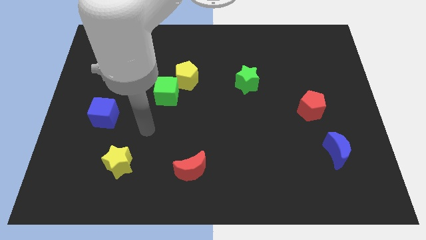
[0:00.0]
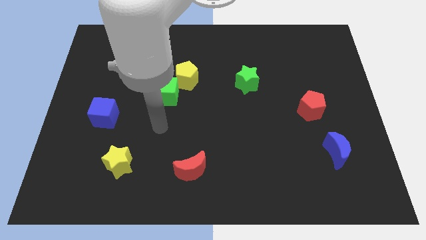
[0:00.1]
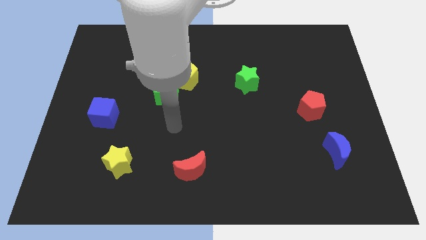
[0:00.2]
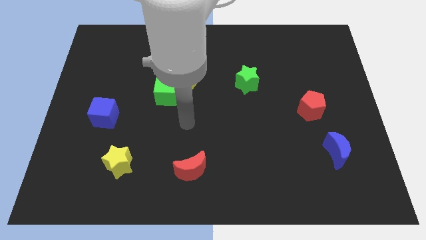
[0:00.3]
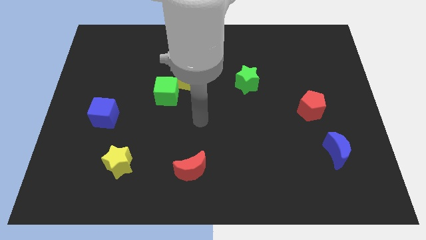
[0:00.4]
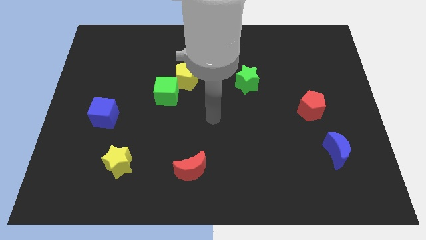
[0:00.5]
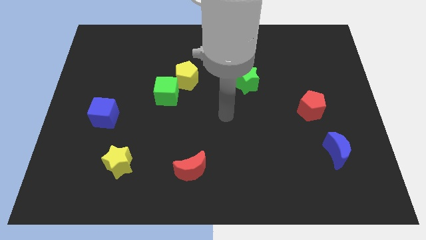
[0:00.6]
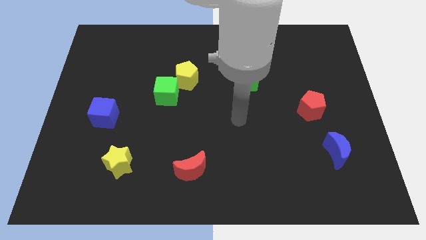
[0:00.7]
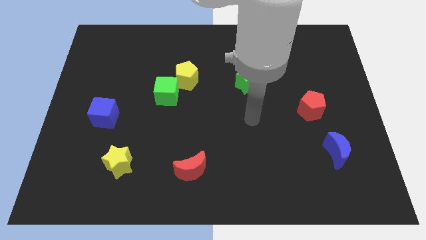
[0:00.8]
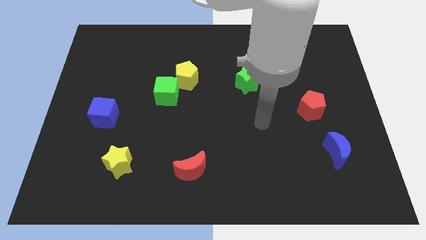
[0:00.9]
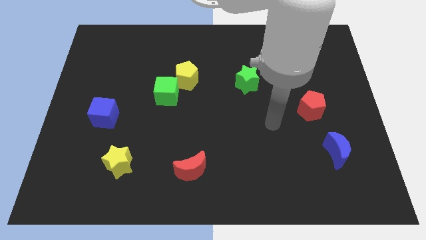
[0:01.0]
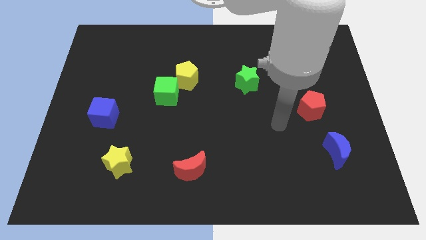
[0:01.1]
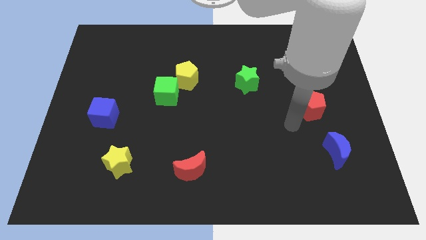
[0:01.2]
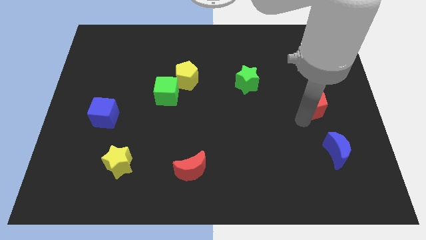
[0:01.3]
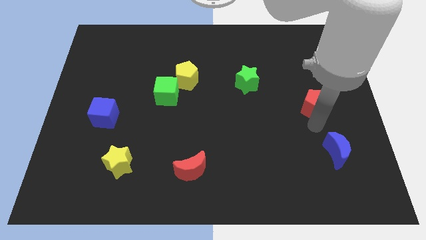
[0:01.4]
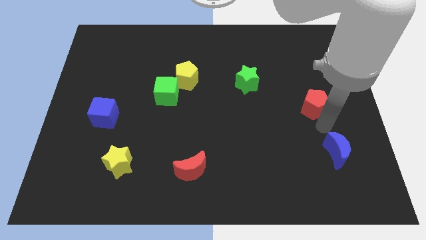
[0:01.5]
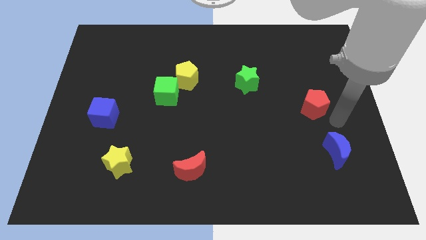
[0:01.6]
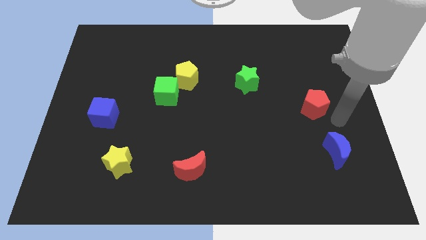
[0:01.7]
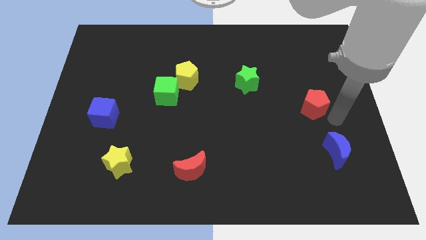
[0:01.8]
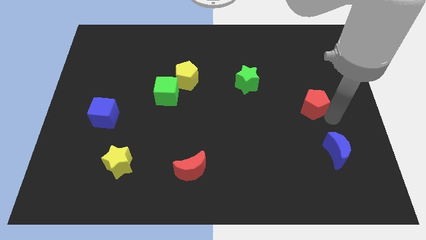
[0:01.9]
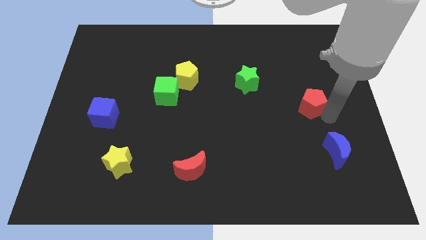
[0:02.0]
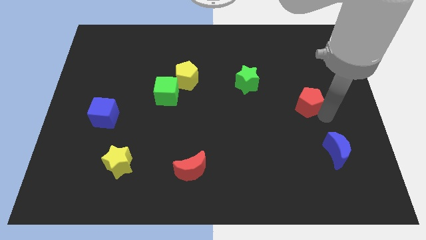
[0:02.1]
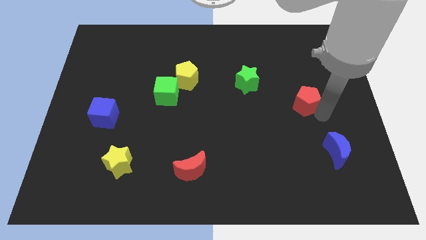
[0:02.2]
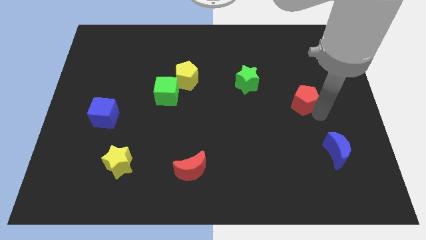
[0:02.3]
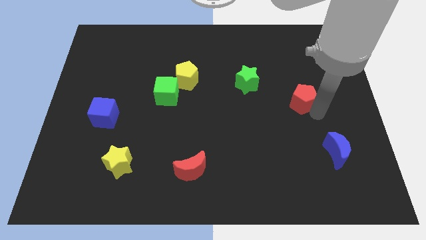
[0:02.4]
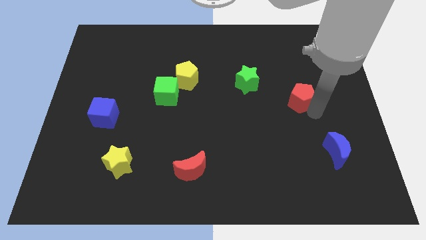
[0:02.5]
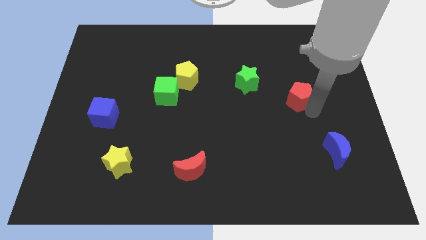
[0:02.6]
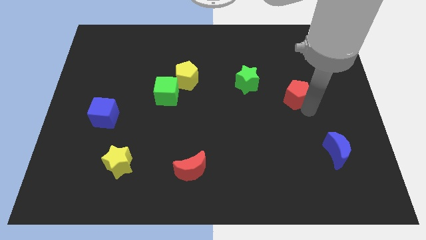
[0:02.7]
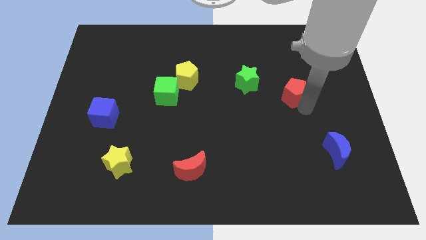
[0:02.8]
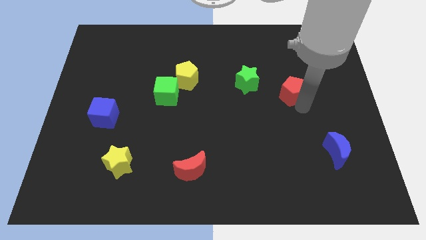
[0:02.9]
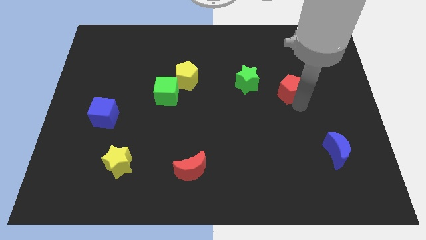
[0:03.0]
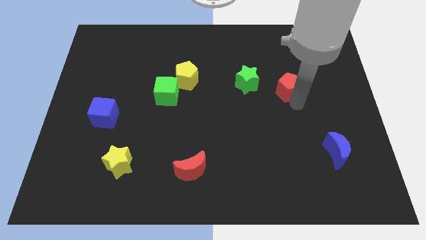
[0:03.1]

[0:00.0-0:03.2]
move the red pentagon a bit upwards and then left

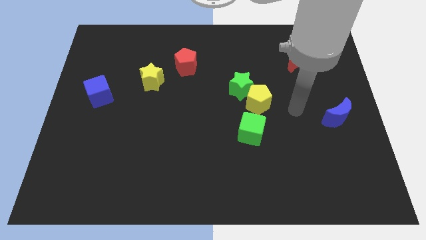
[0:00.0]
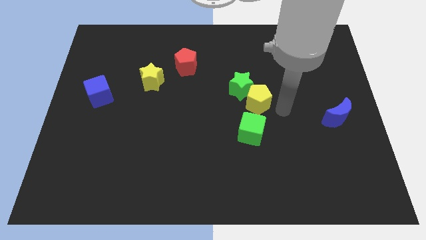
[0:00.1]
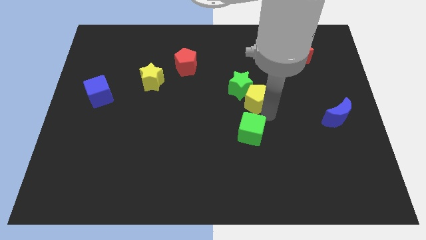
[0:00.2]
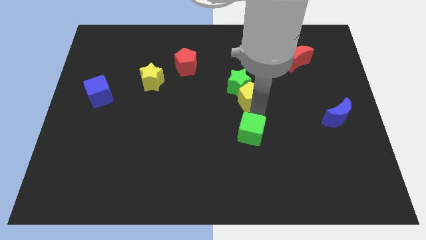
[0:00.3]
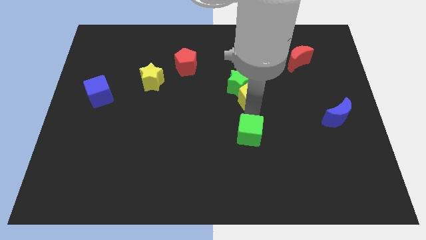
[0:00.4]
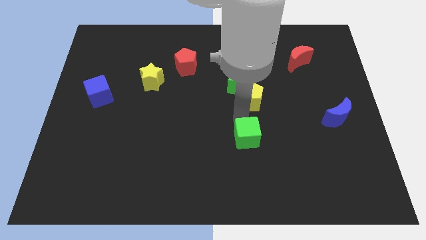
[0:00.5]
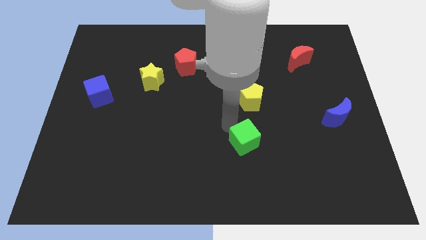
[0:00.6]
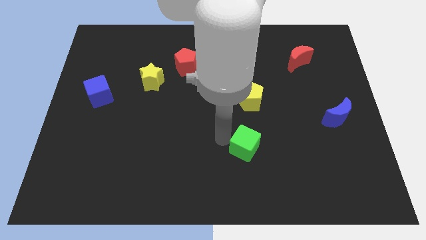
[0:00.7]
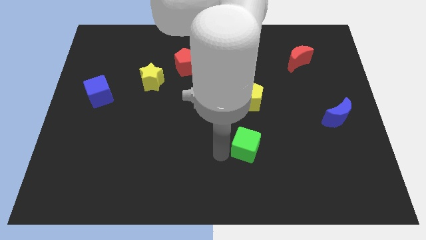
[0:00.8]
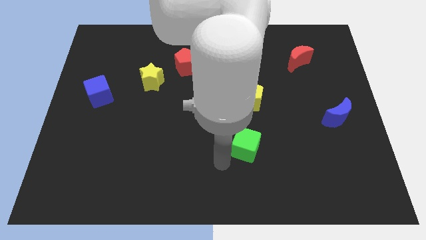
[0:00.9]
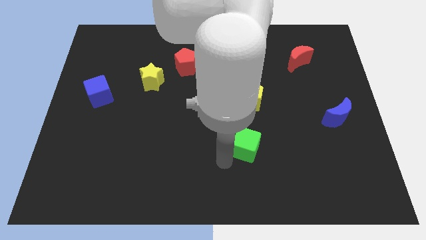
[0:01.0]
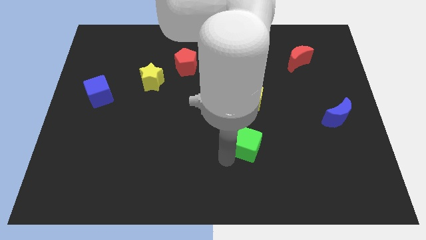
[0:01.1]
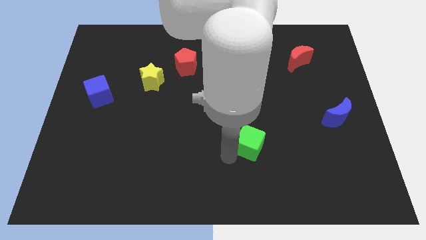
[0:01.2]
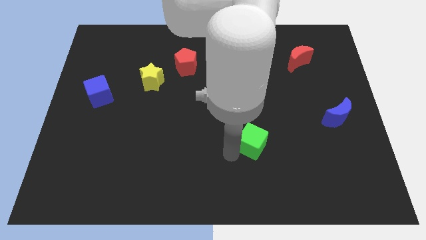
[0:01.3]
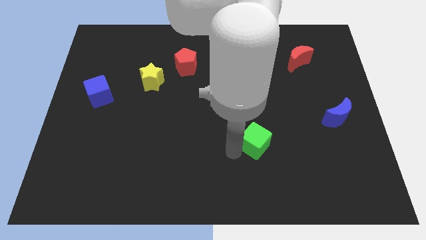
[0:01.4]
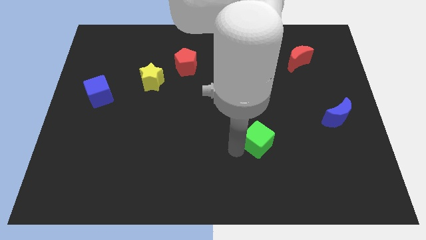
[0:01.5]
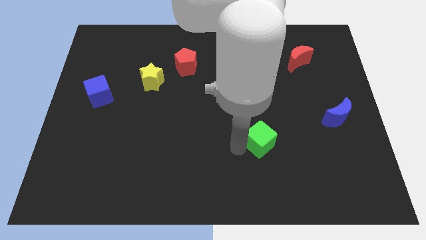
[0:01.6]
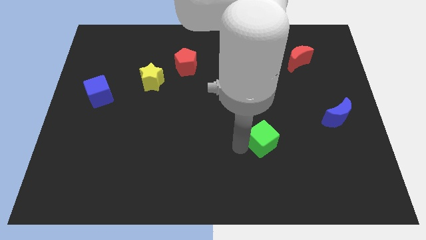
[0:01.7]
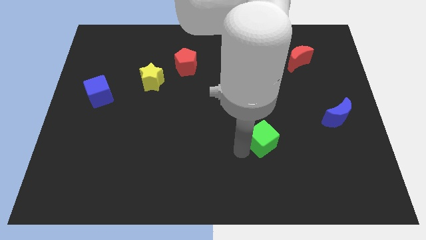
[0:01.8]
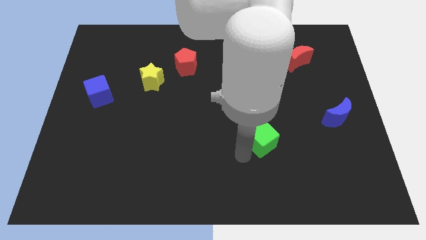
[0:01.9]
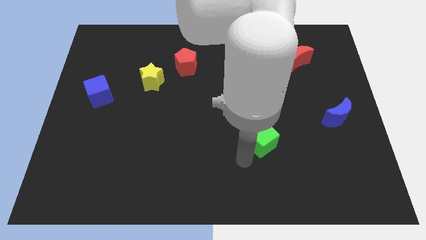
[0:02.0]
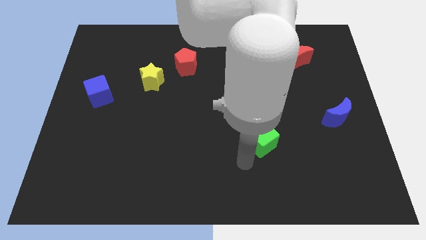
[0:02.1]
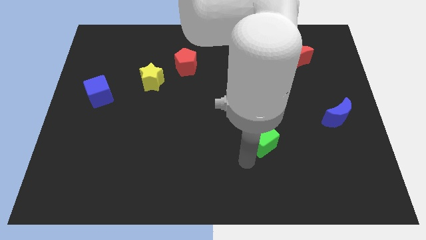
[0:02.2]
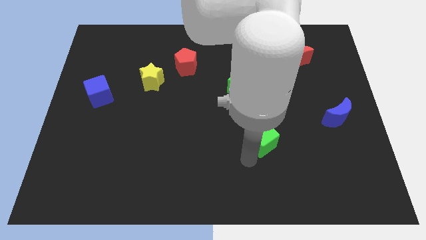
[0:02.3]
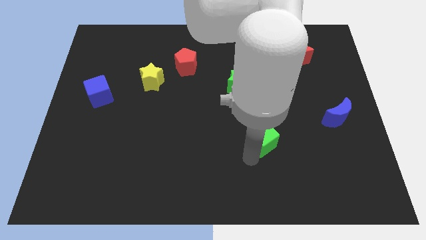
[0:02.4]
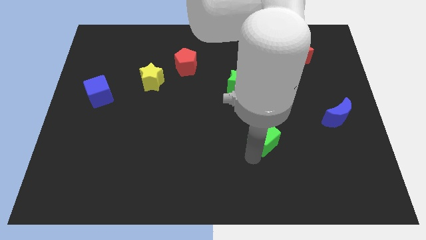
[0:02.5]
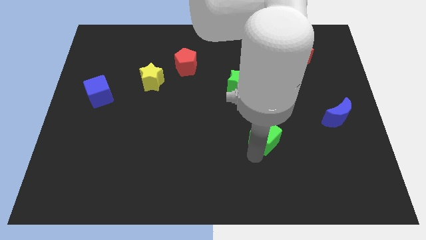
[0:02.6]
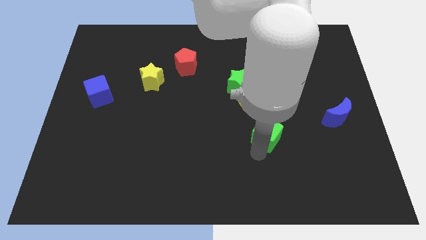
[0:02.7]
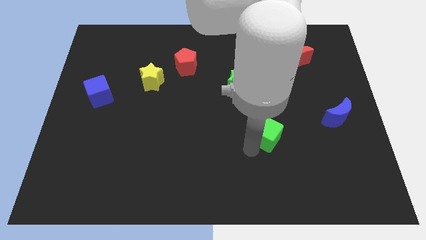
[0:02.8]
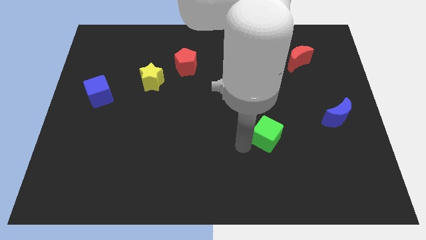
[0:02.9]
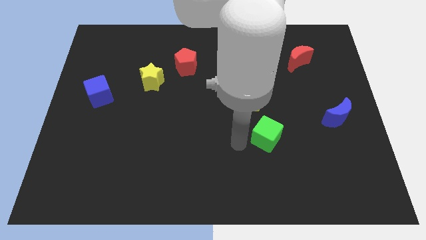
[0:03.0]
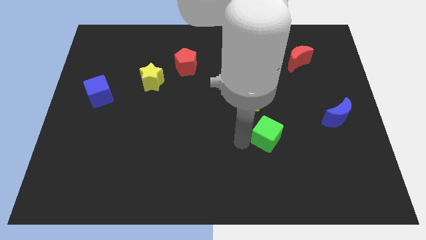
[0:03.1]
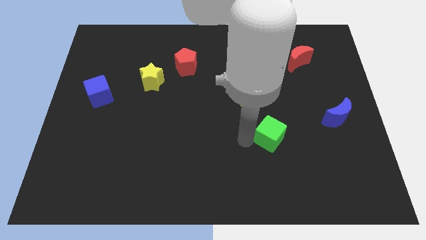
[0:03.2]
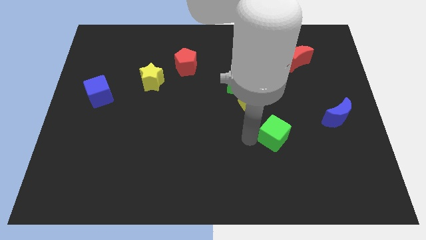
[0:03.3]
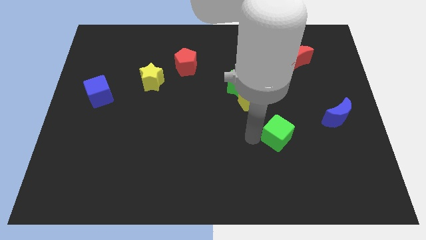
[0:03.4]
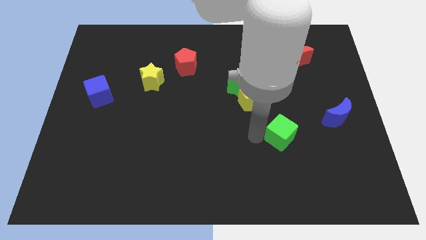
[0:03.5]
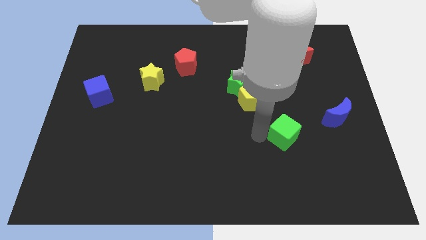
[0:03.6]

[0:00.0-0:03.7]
move the green cube to the right a bit

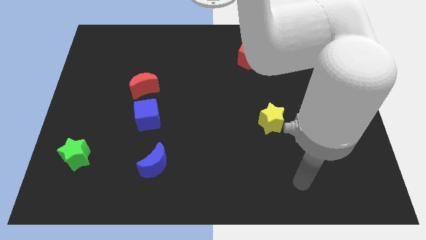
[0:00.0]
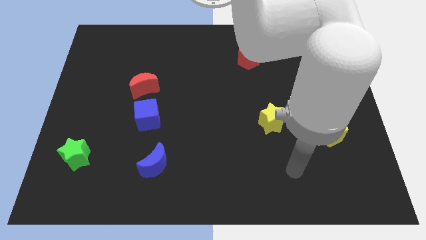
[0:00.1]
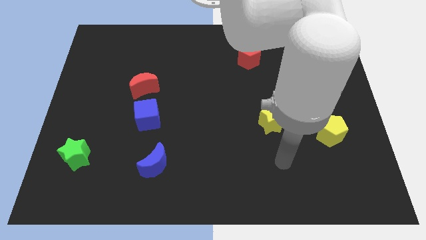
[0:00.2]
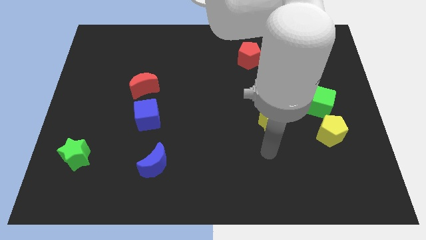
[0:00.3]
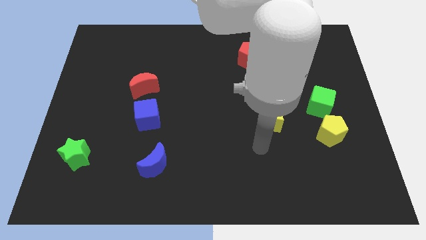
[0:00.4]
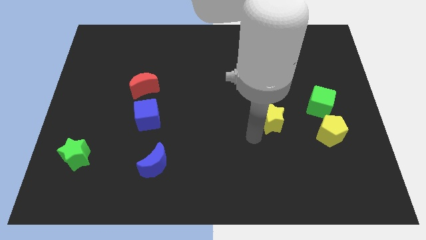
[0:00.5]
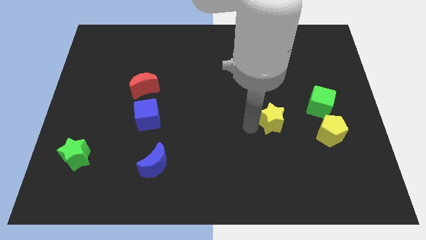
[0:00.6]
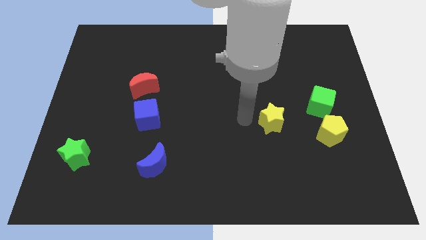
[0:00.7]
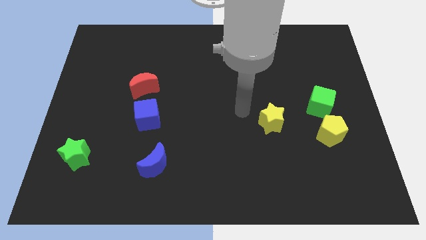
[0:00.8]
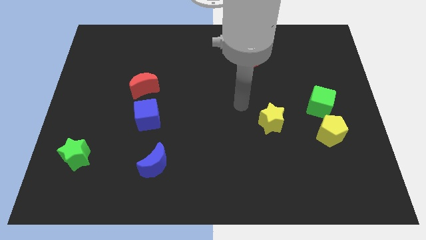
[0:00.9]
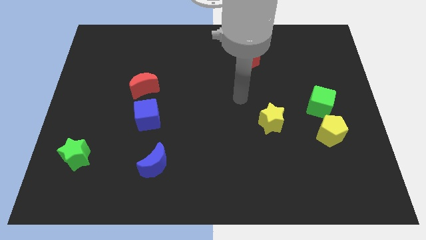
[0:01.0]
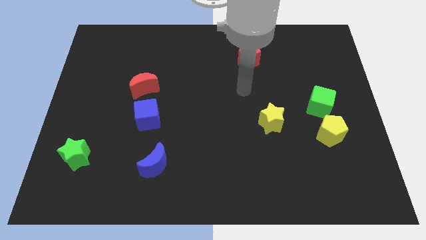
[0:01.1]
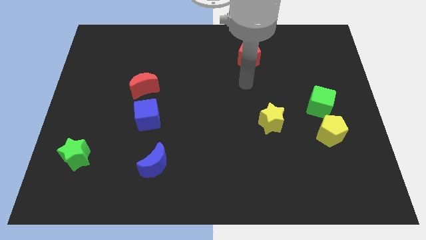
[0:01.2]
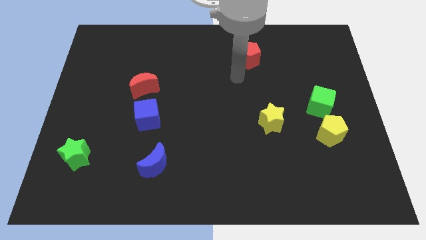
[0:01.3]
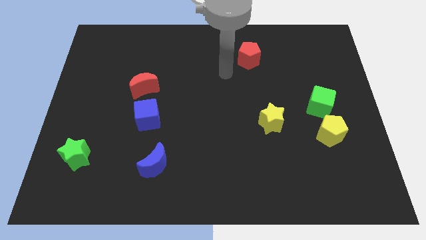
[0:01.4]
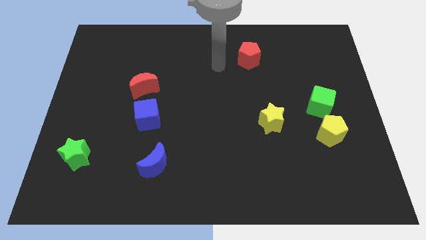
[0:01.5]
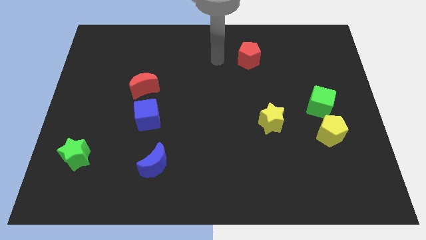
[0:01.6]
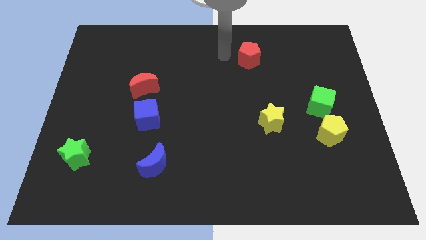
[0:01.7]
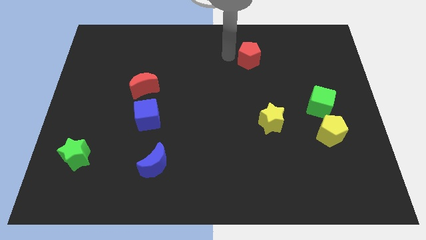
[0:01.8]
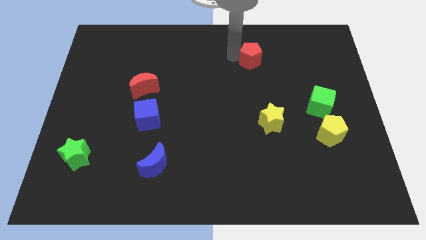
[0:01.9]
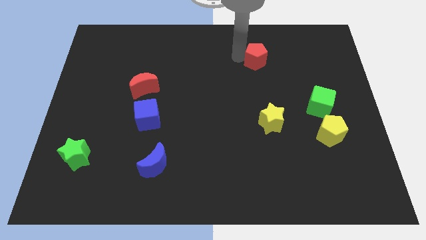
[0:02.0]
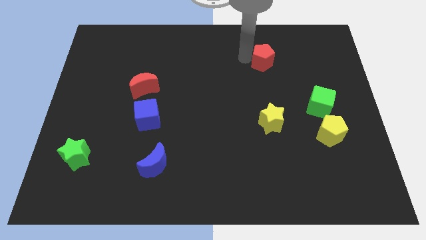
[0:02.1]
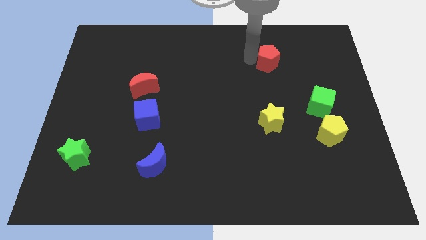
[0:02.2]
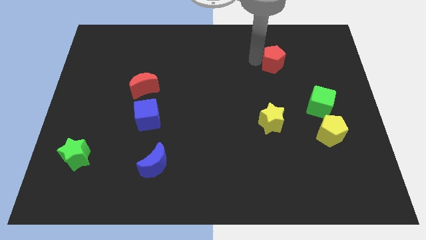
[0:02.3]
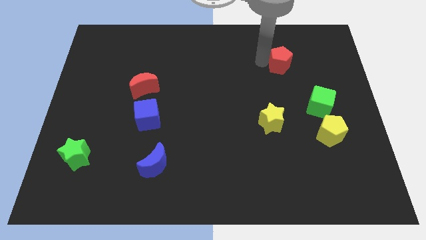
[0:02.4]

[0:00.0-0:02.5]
slightly slide the red pentagon to the right
